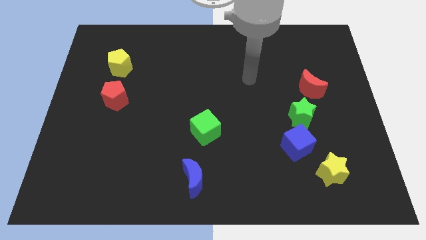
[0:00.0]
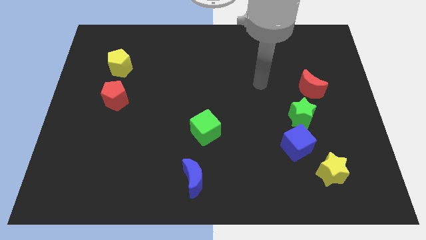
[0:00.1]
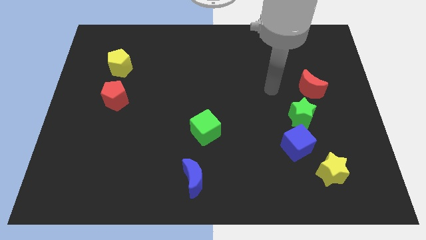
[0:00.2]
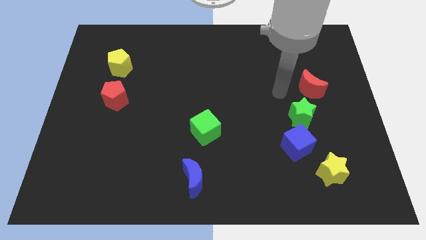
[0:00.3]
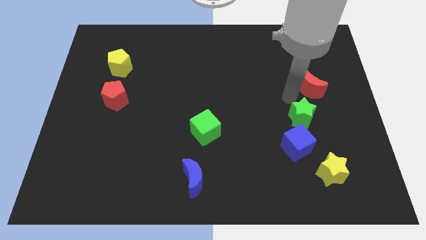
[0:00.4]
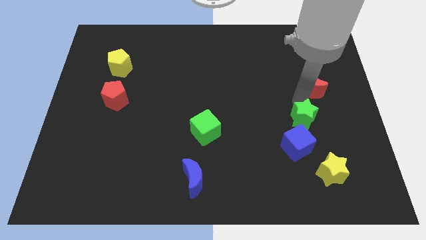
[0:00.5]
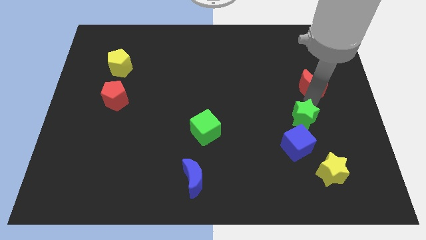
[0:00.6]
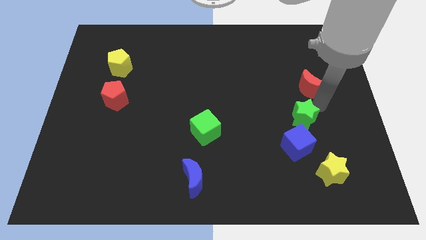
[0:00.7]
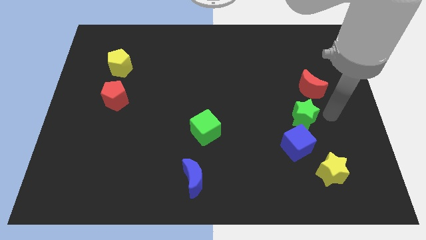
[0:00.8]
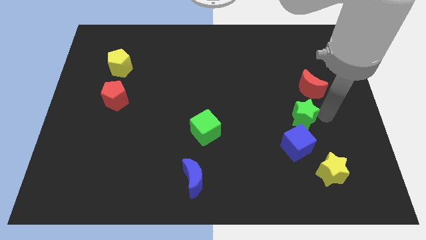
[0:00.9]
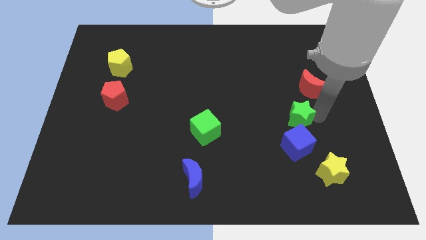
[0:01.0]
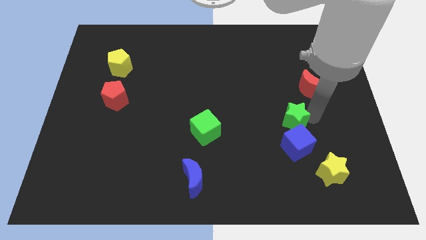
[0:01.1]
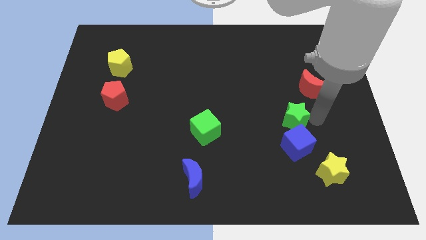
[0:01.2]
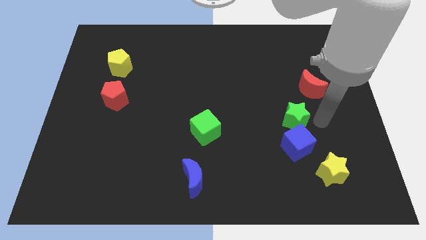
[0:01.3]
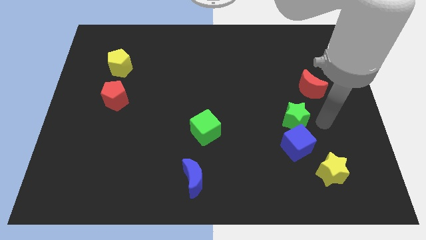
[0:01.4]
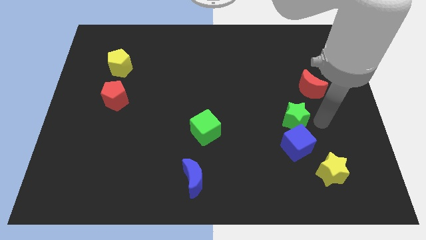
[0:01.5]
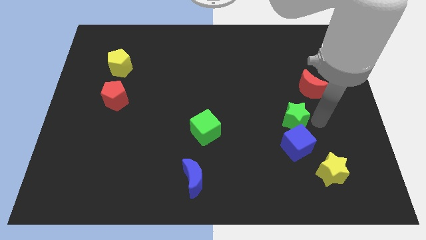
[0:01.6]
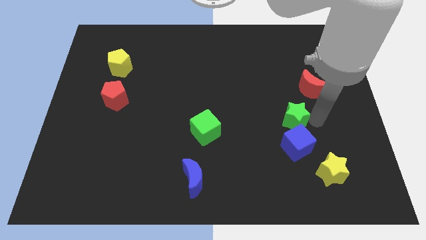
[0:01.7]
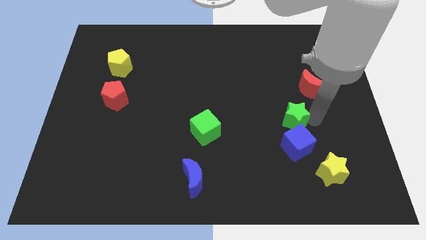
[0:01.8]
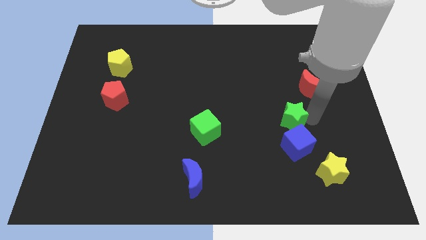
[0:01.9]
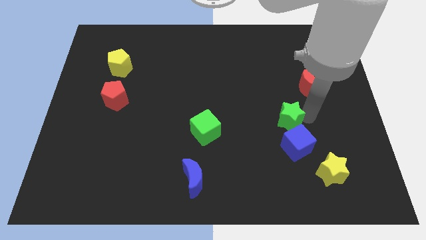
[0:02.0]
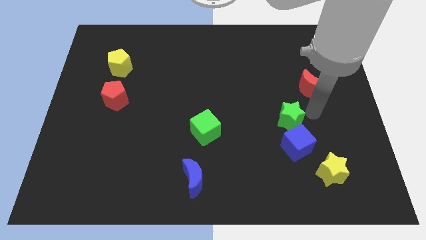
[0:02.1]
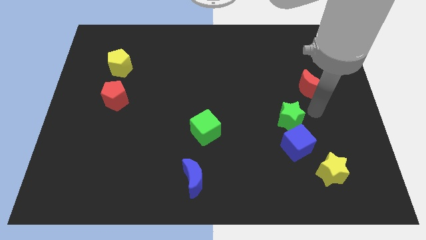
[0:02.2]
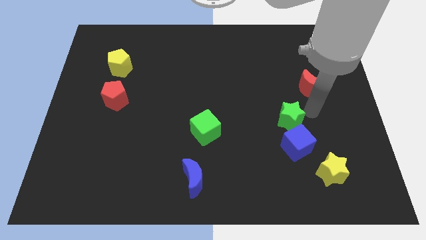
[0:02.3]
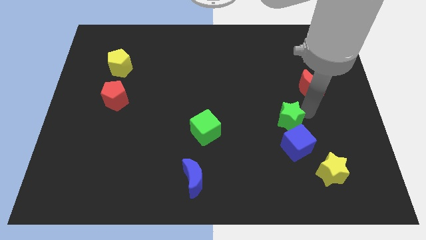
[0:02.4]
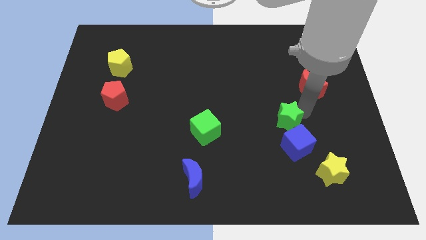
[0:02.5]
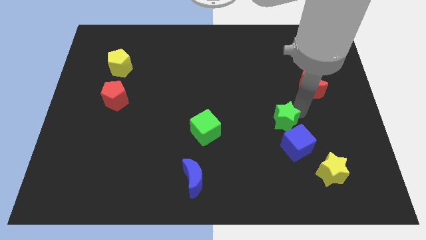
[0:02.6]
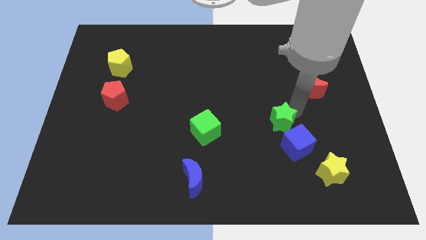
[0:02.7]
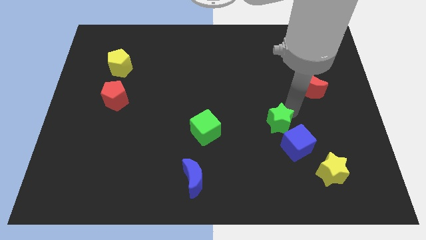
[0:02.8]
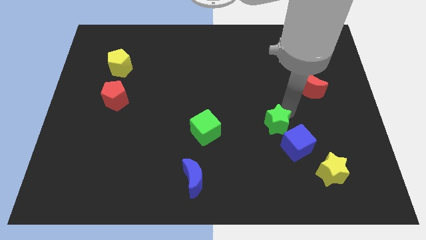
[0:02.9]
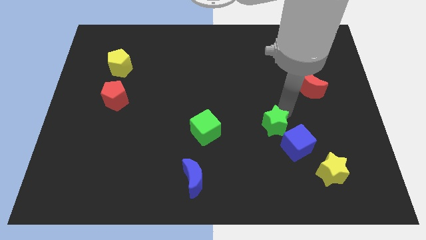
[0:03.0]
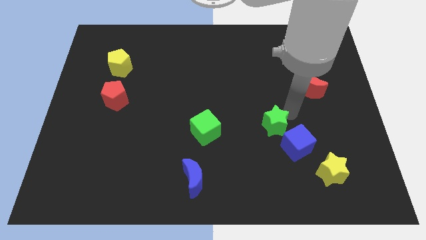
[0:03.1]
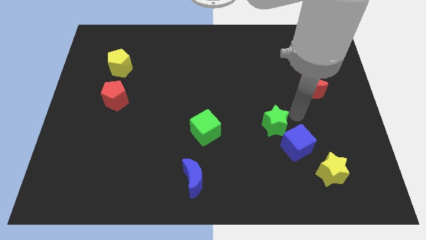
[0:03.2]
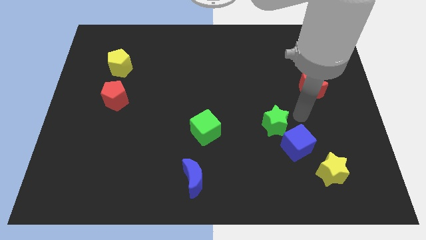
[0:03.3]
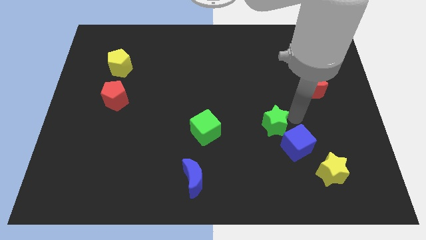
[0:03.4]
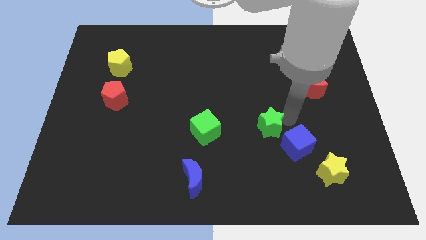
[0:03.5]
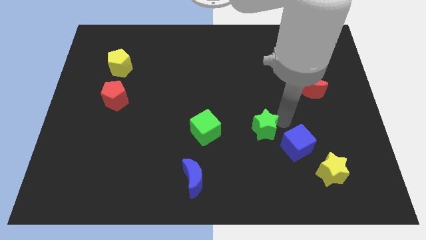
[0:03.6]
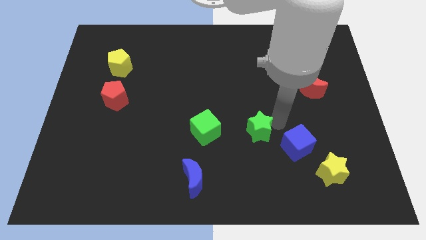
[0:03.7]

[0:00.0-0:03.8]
pull the green star apart from the blue cube and red moon

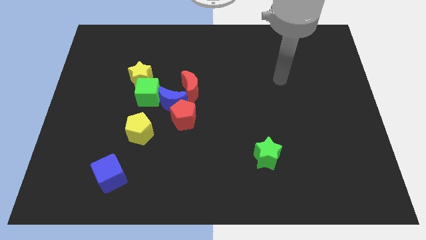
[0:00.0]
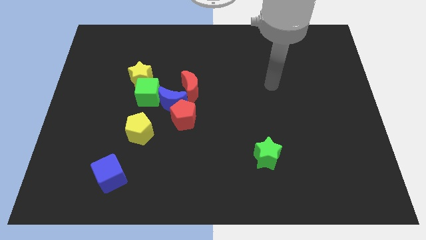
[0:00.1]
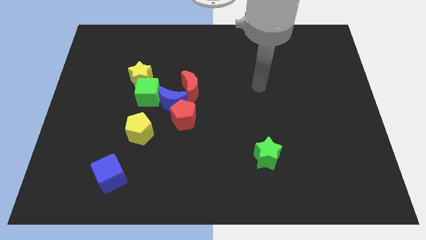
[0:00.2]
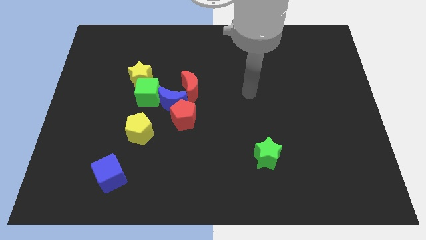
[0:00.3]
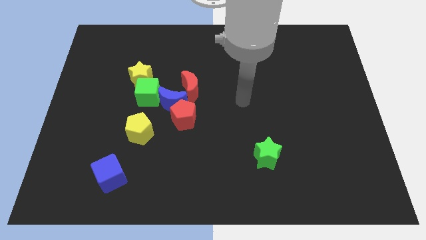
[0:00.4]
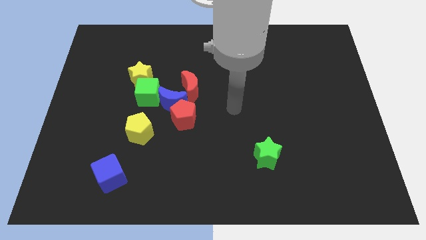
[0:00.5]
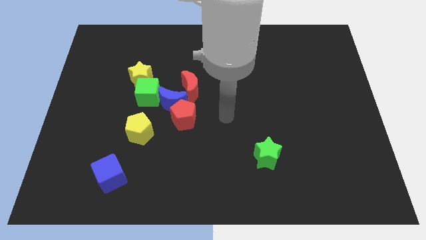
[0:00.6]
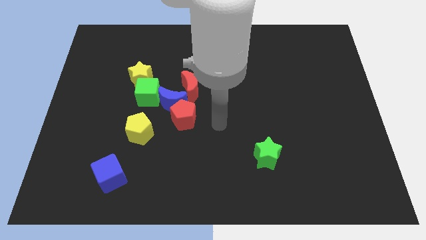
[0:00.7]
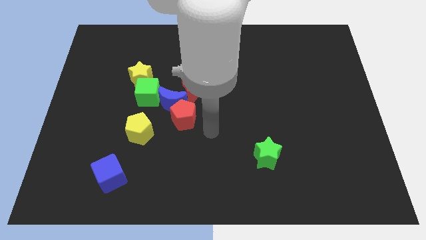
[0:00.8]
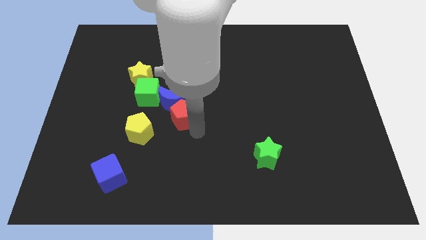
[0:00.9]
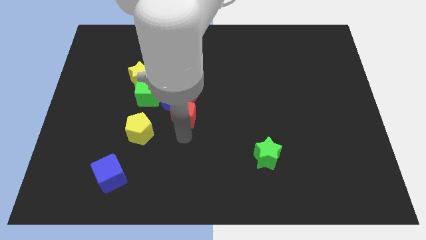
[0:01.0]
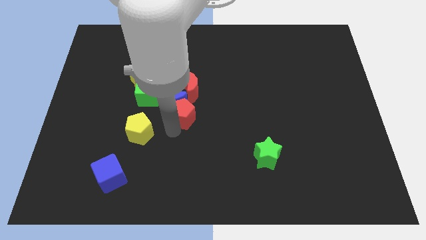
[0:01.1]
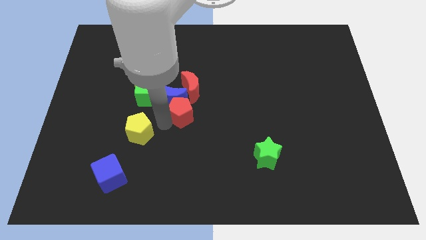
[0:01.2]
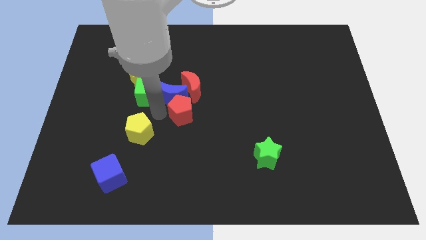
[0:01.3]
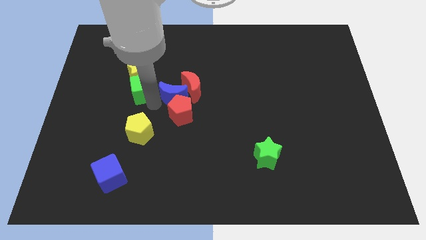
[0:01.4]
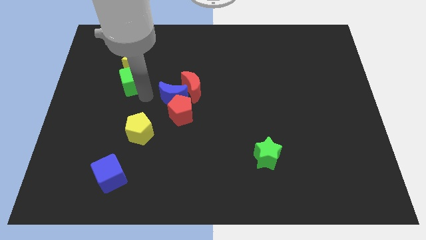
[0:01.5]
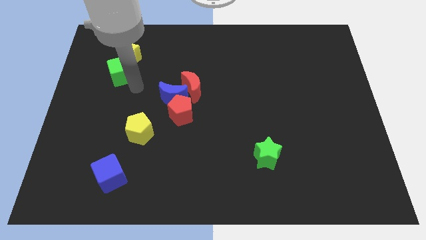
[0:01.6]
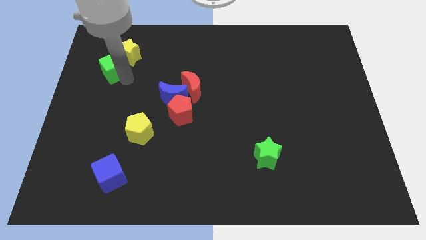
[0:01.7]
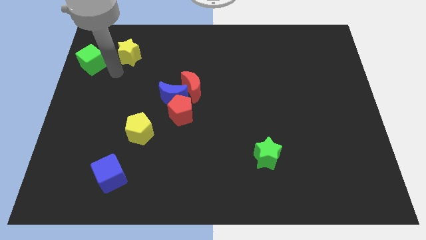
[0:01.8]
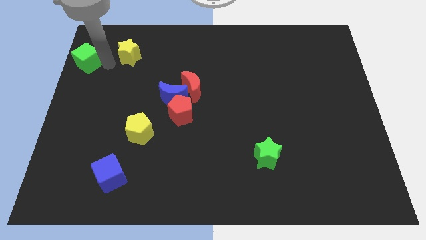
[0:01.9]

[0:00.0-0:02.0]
move the yellow star away from the green cube

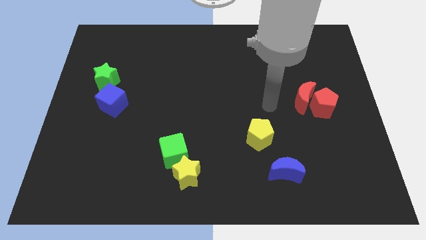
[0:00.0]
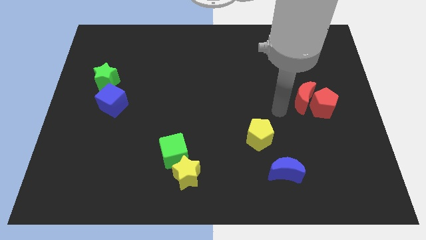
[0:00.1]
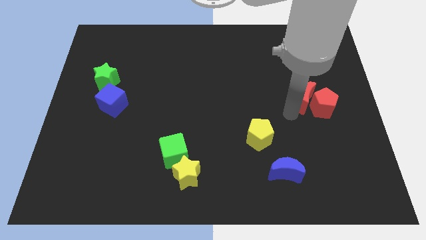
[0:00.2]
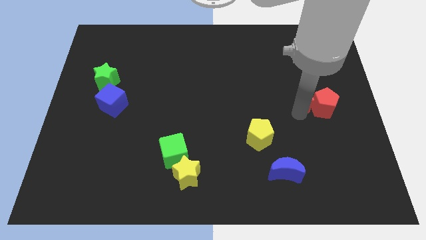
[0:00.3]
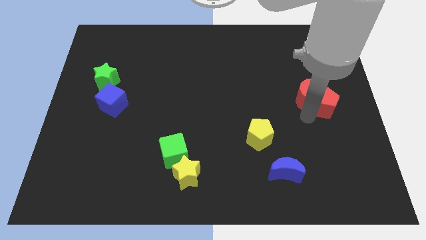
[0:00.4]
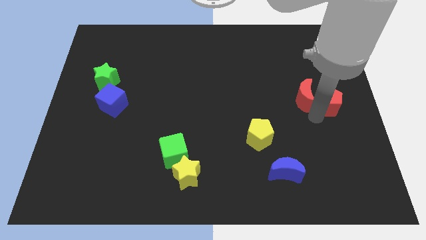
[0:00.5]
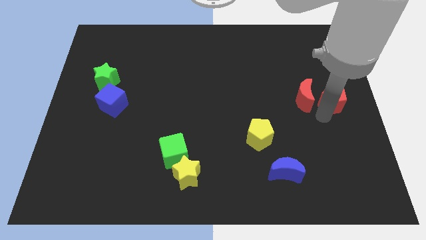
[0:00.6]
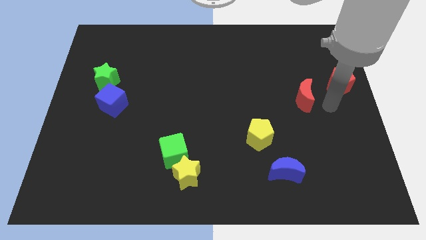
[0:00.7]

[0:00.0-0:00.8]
separate the red moon from the red pentagon

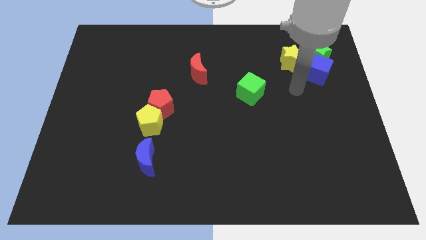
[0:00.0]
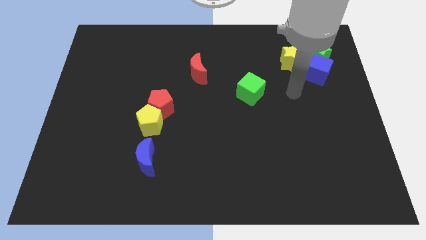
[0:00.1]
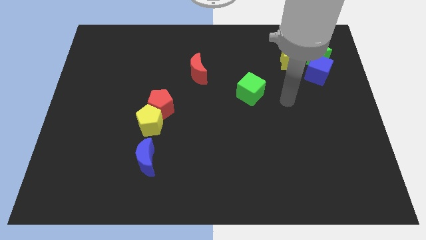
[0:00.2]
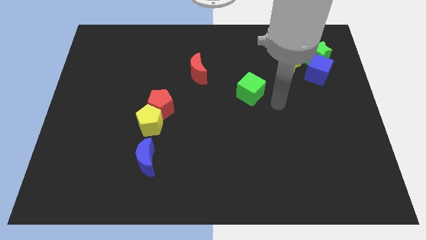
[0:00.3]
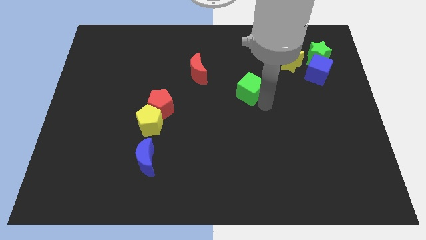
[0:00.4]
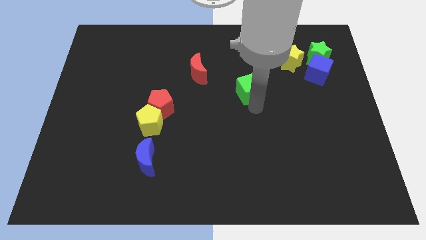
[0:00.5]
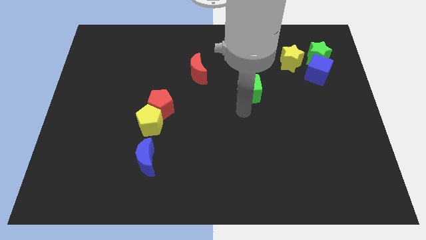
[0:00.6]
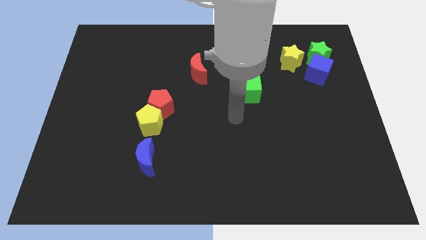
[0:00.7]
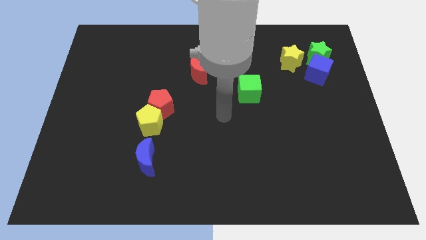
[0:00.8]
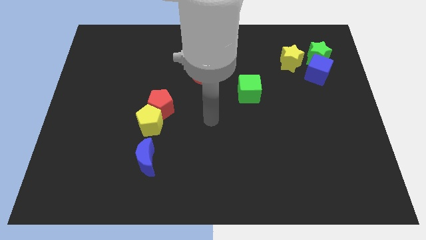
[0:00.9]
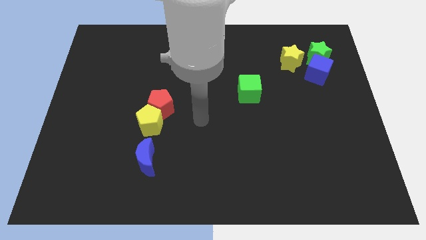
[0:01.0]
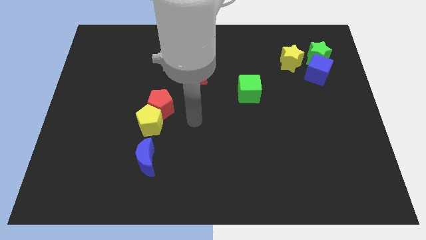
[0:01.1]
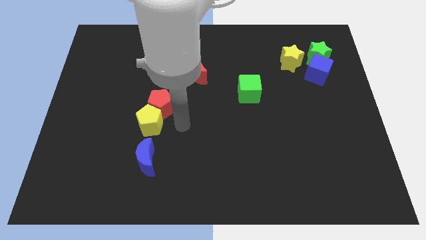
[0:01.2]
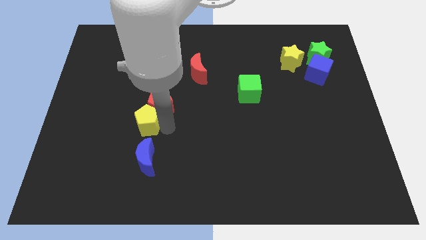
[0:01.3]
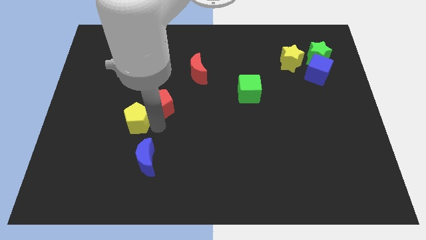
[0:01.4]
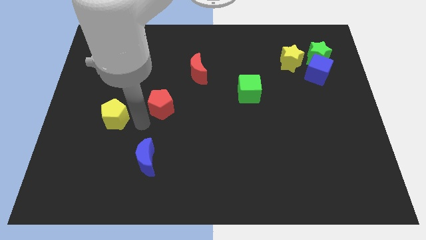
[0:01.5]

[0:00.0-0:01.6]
pull the red pentagon apart from the yellow pentagon

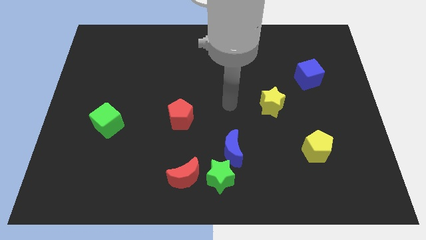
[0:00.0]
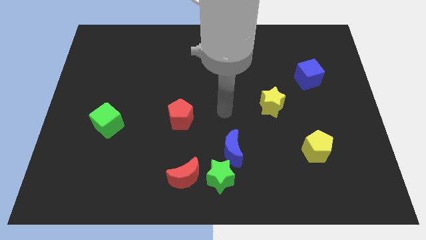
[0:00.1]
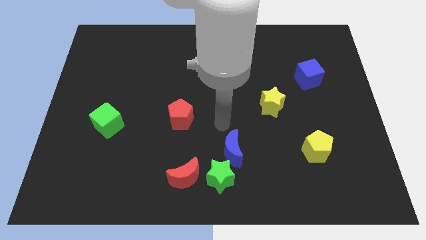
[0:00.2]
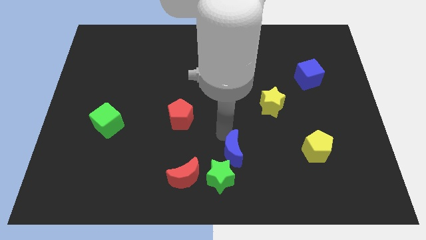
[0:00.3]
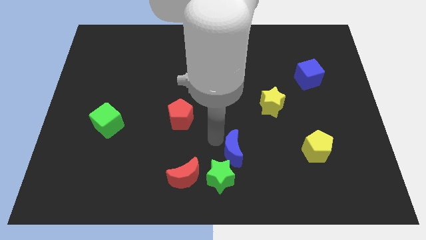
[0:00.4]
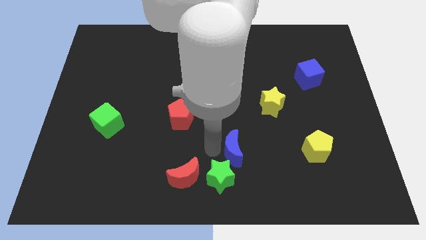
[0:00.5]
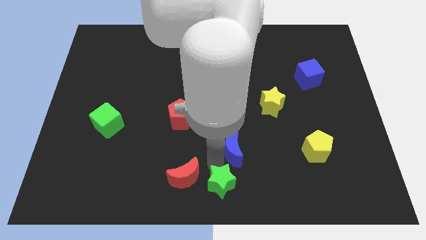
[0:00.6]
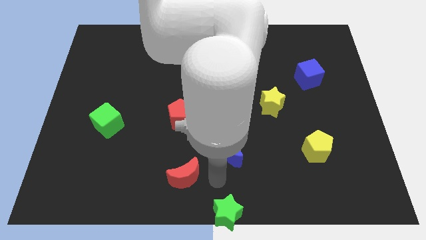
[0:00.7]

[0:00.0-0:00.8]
separate the red moon from the green star

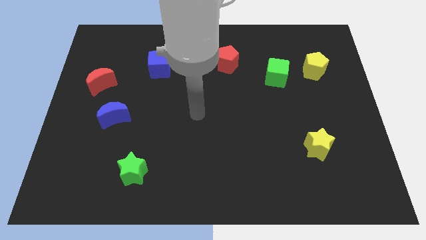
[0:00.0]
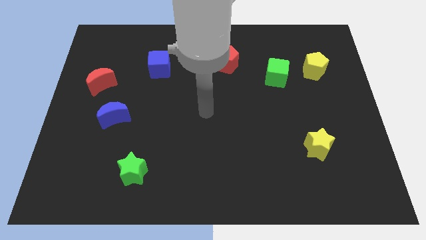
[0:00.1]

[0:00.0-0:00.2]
move the green cube away from the yellow pentagon
